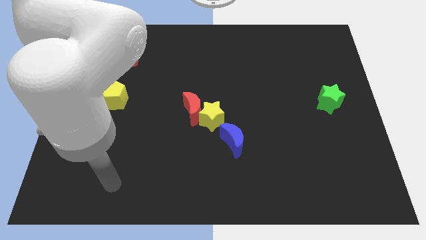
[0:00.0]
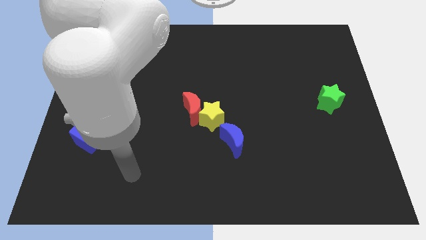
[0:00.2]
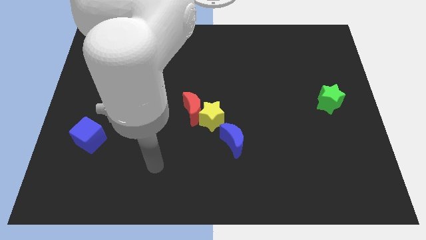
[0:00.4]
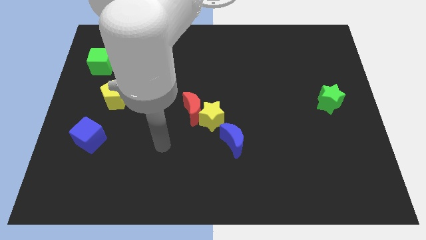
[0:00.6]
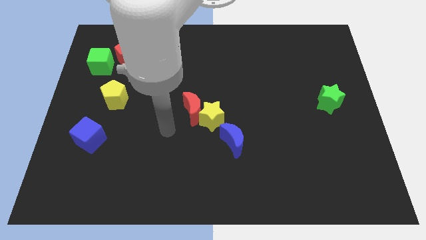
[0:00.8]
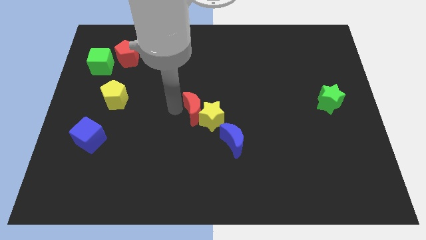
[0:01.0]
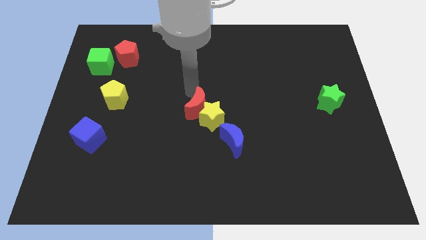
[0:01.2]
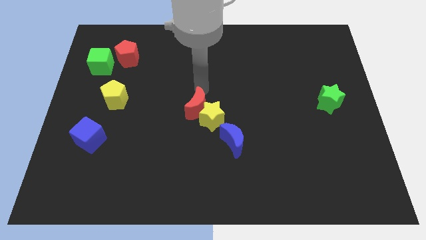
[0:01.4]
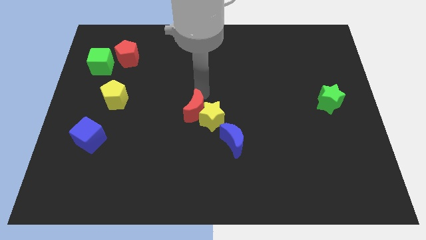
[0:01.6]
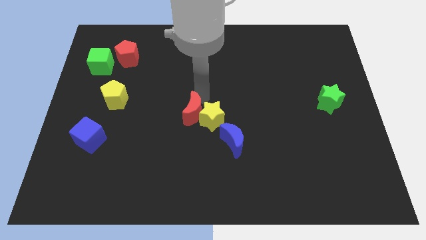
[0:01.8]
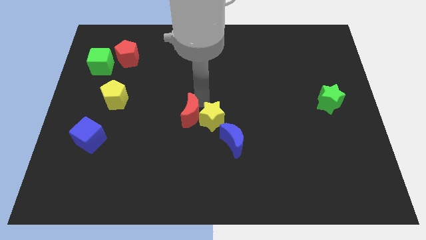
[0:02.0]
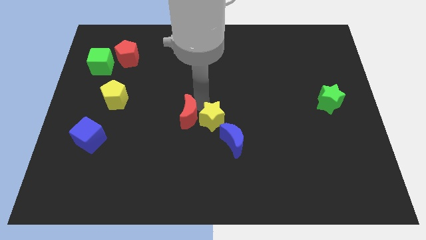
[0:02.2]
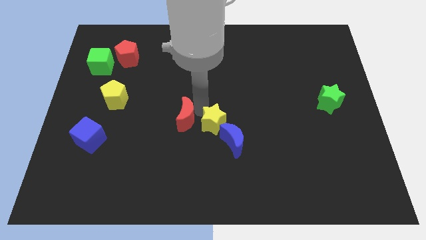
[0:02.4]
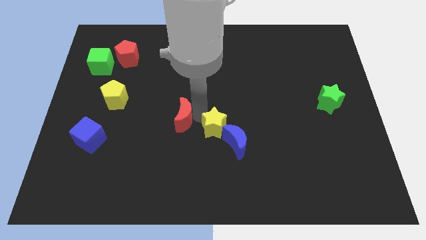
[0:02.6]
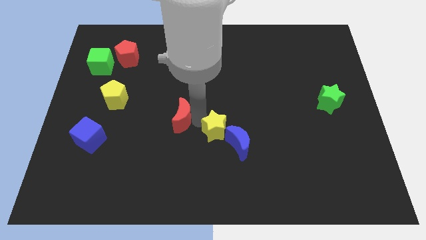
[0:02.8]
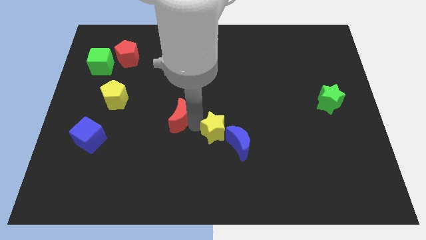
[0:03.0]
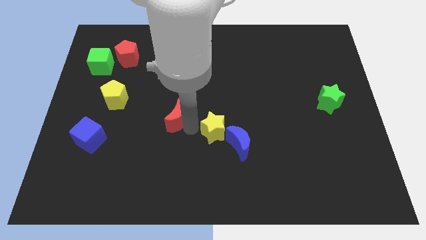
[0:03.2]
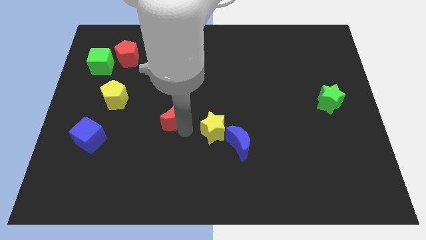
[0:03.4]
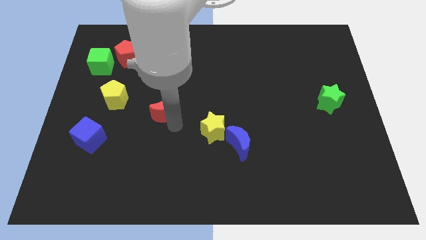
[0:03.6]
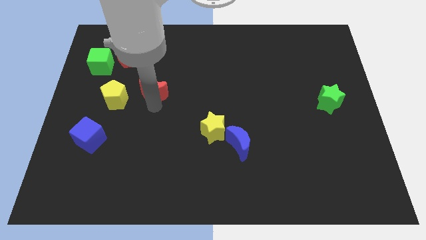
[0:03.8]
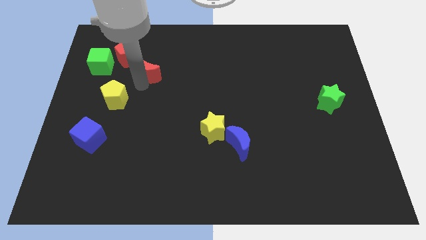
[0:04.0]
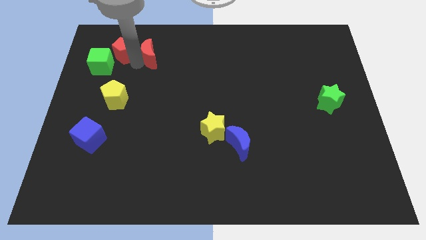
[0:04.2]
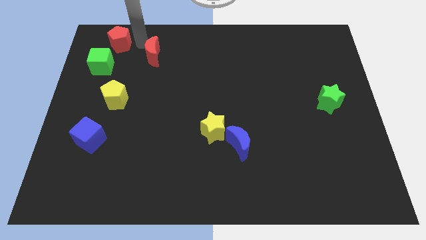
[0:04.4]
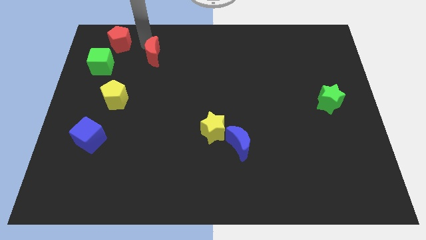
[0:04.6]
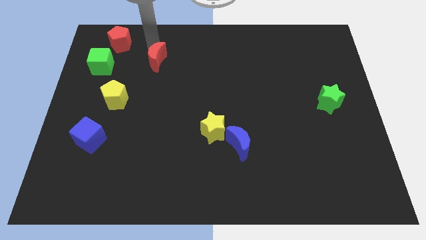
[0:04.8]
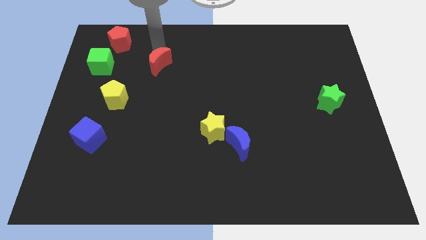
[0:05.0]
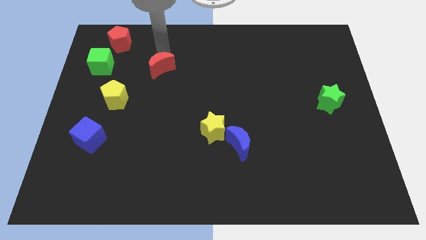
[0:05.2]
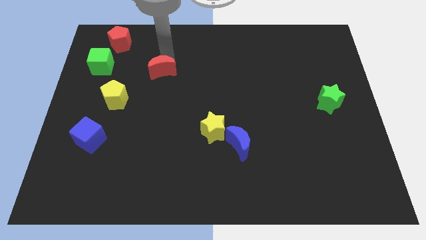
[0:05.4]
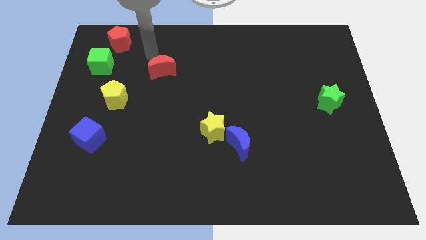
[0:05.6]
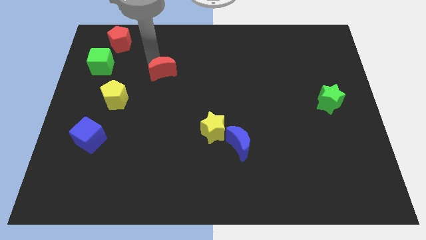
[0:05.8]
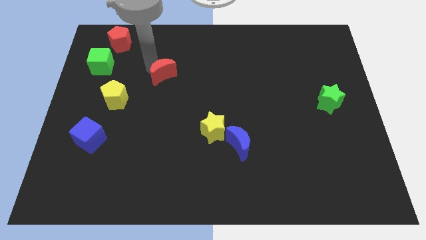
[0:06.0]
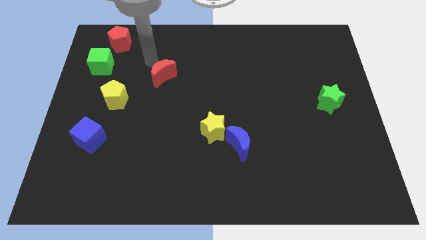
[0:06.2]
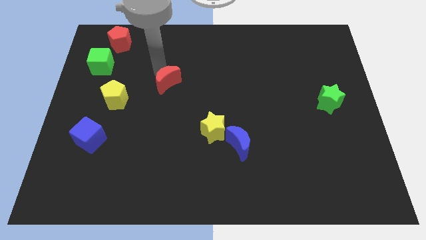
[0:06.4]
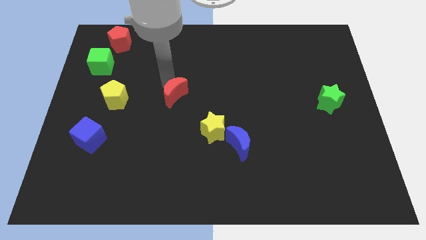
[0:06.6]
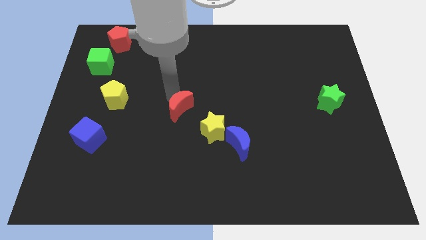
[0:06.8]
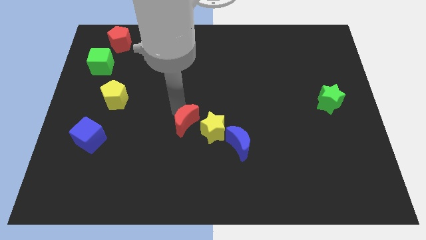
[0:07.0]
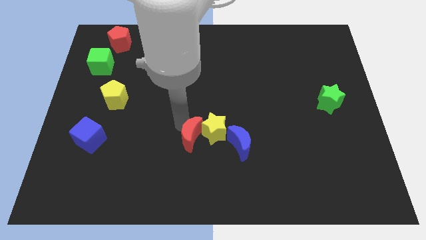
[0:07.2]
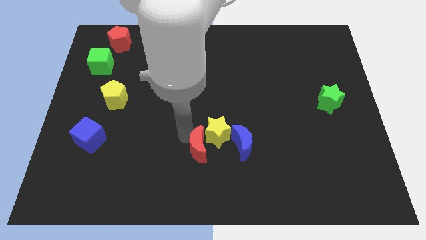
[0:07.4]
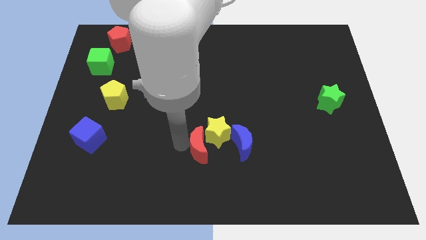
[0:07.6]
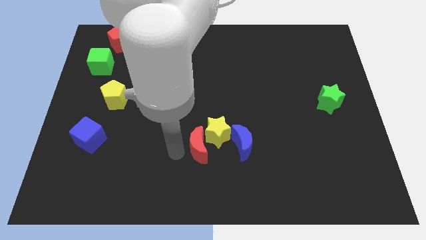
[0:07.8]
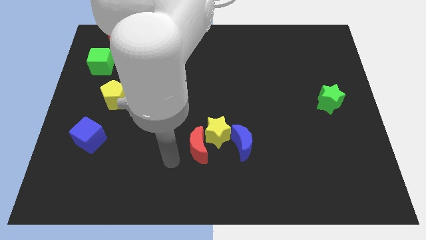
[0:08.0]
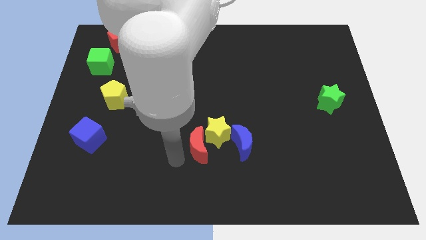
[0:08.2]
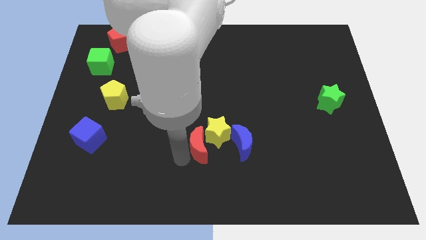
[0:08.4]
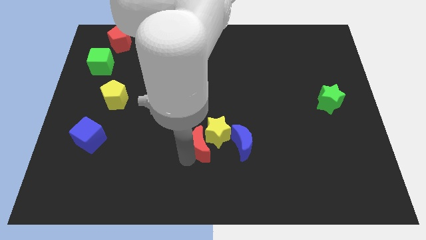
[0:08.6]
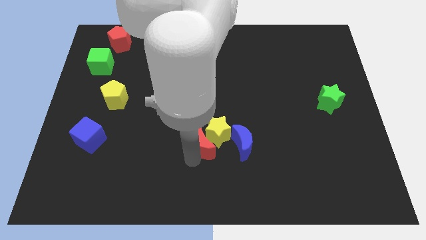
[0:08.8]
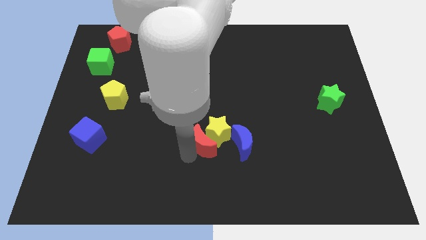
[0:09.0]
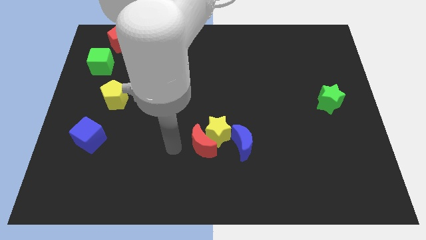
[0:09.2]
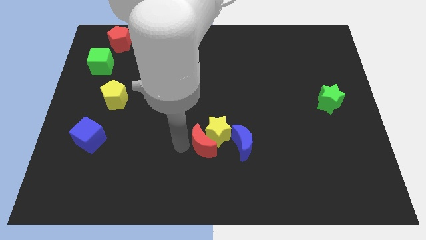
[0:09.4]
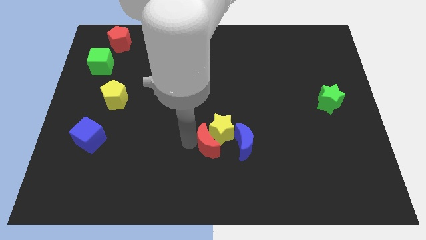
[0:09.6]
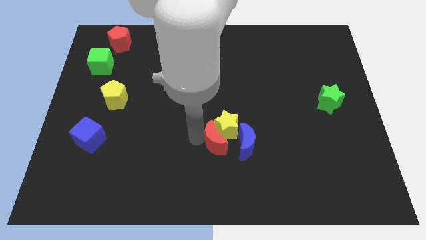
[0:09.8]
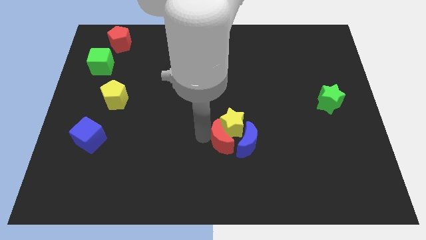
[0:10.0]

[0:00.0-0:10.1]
put the red moon next to the blue moon

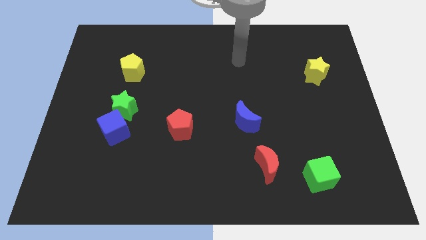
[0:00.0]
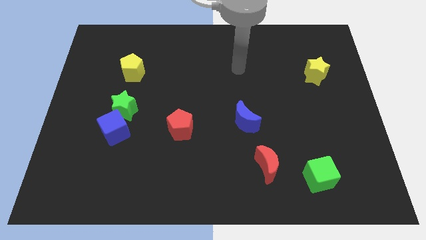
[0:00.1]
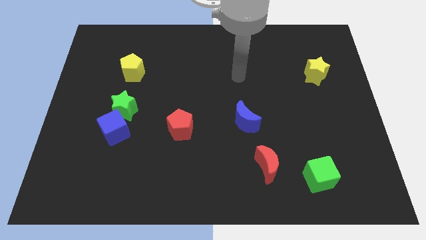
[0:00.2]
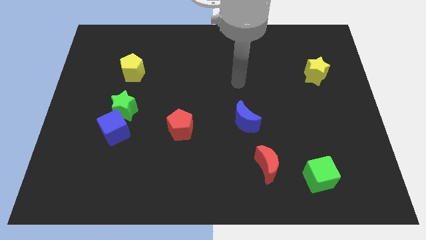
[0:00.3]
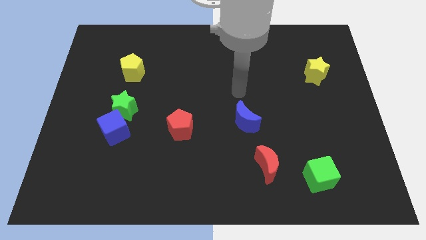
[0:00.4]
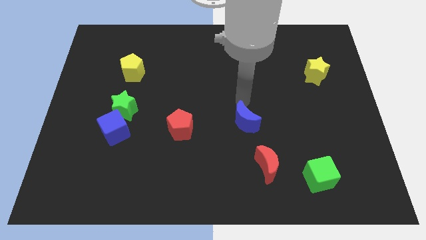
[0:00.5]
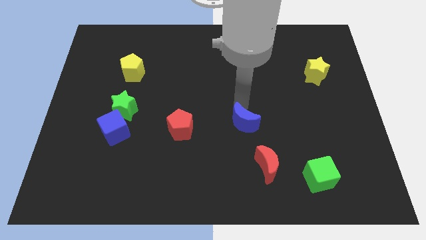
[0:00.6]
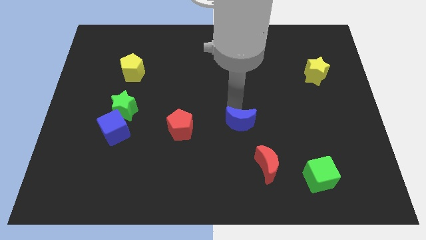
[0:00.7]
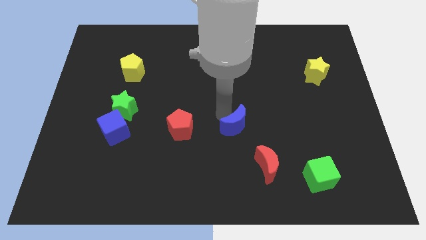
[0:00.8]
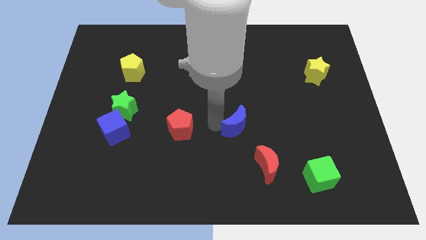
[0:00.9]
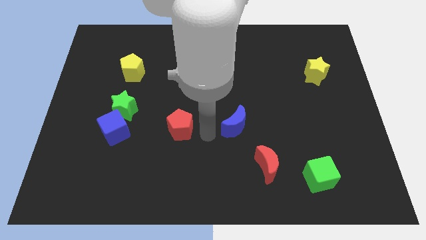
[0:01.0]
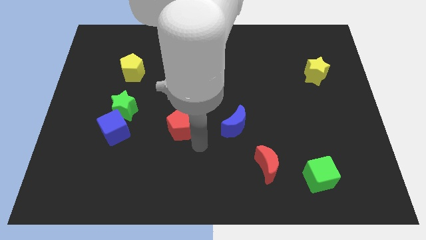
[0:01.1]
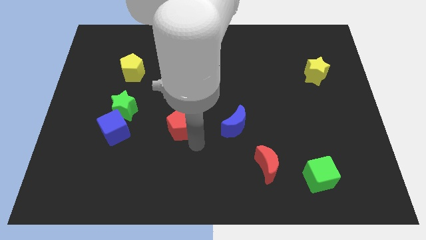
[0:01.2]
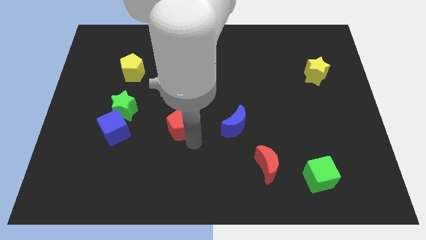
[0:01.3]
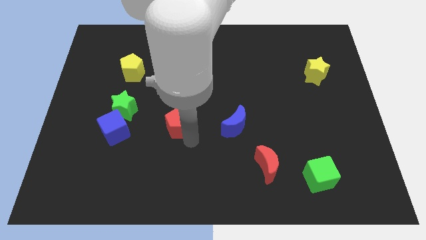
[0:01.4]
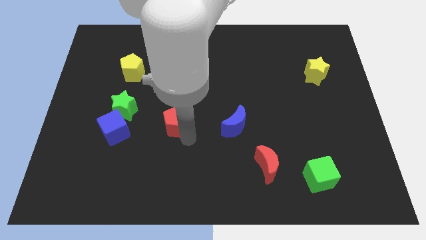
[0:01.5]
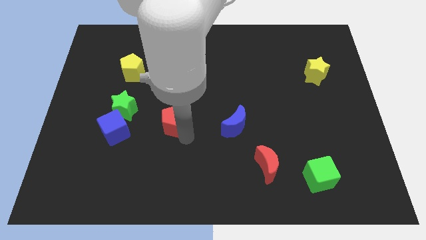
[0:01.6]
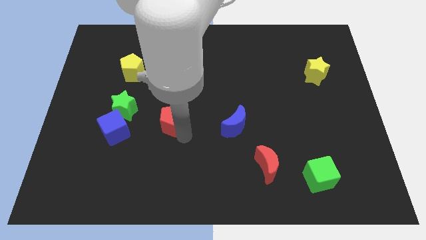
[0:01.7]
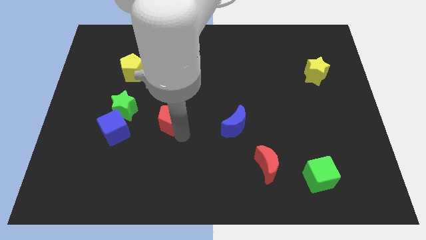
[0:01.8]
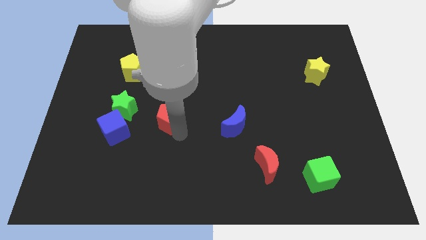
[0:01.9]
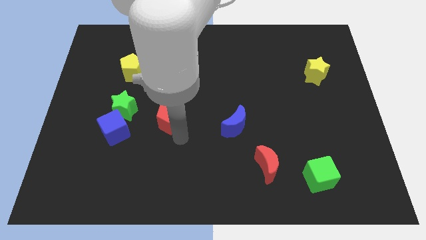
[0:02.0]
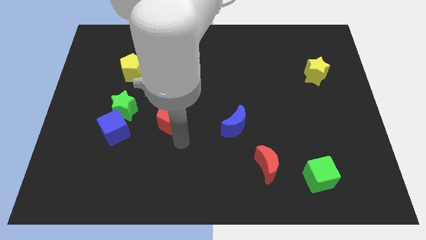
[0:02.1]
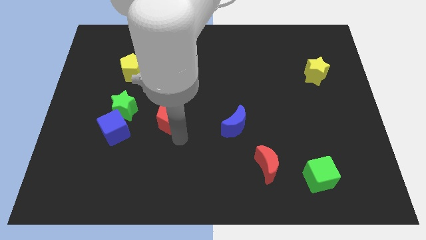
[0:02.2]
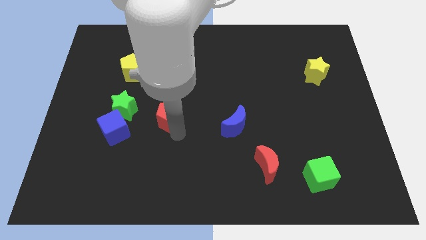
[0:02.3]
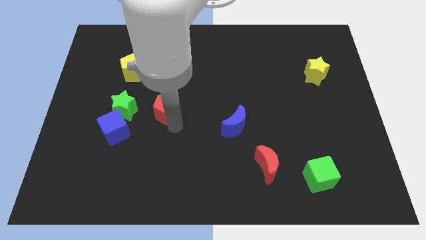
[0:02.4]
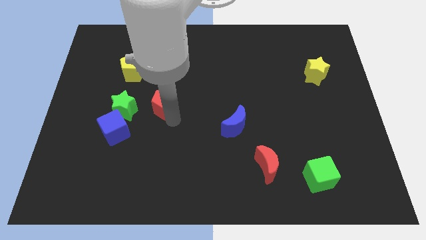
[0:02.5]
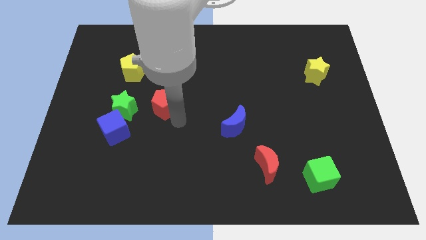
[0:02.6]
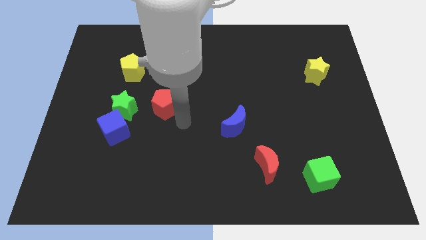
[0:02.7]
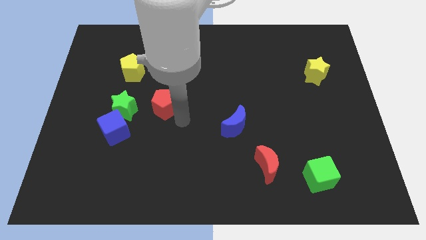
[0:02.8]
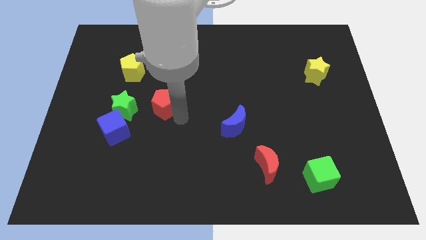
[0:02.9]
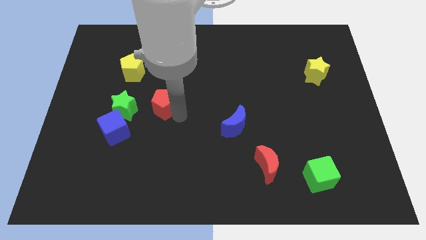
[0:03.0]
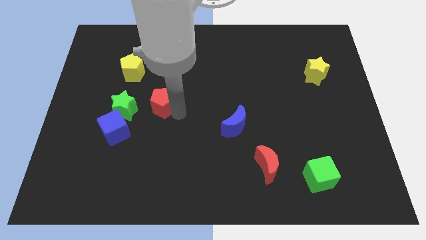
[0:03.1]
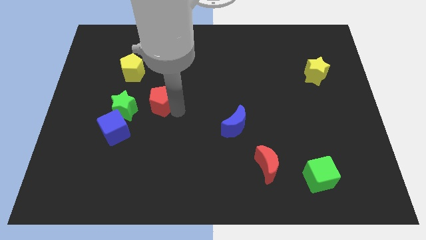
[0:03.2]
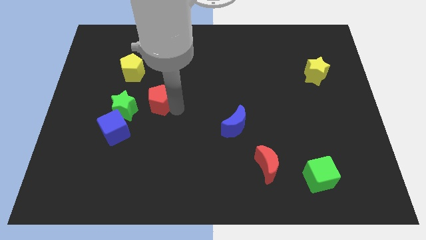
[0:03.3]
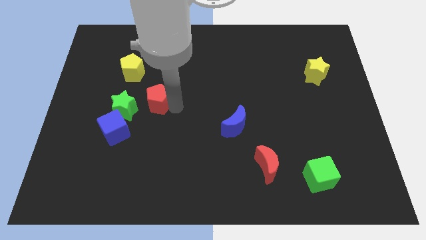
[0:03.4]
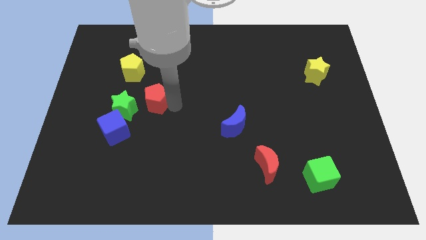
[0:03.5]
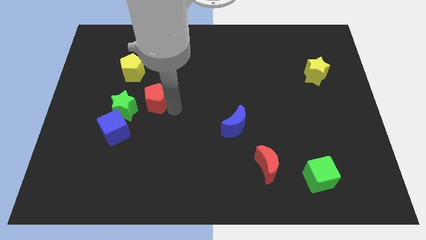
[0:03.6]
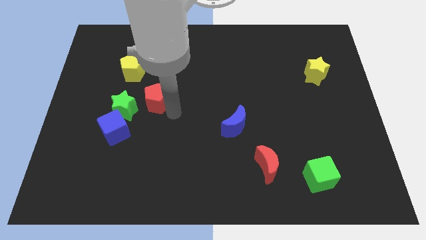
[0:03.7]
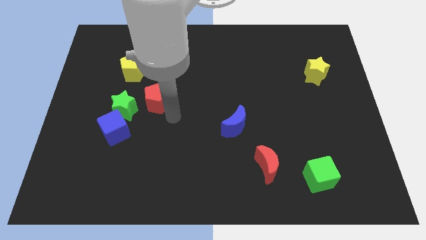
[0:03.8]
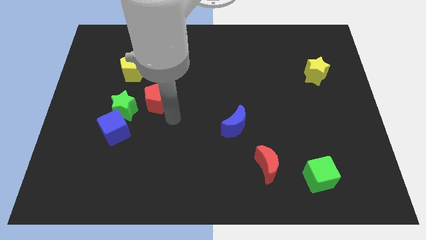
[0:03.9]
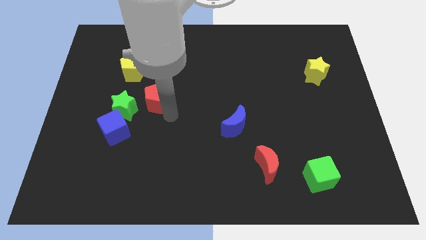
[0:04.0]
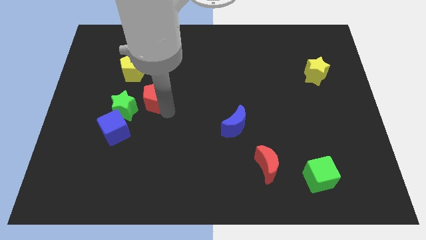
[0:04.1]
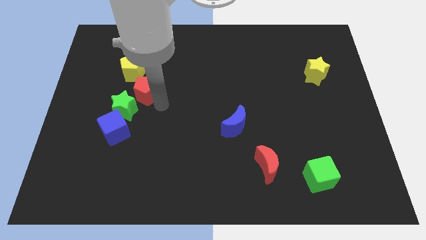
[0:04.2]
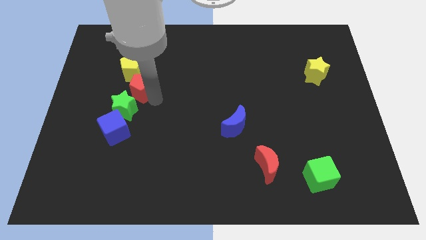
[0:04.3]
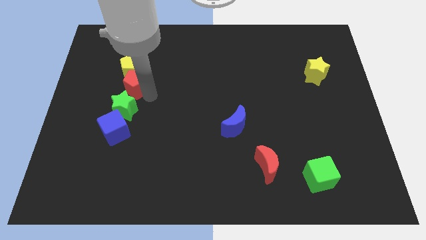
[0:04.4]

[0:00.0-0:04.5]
slide the red pentagon to the yellow pentagon
